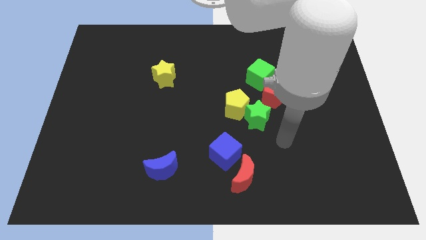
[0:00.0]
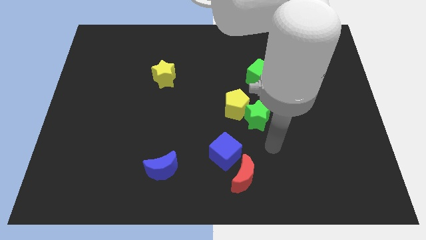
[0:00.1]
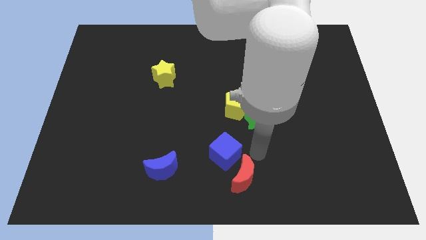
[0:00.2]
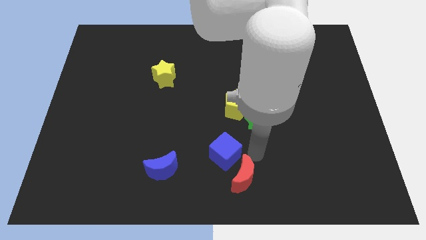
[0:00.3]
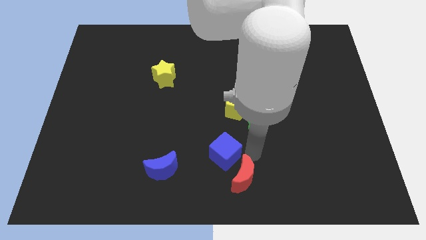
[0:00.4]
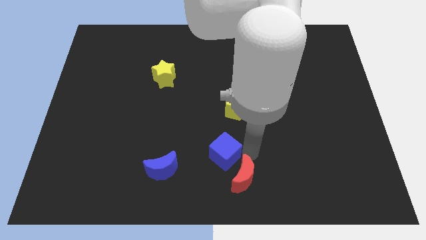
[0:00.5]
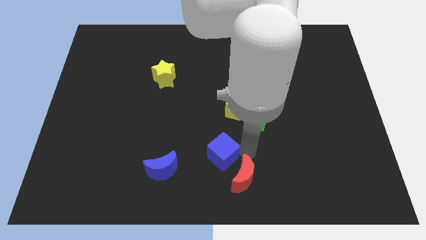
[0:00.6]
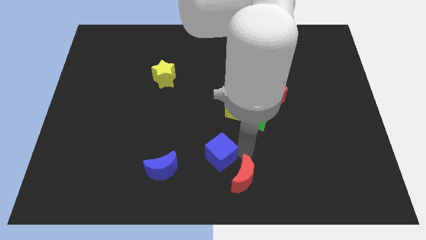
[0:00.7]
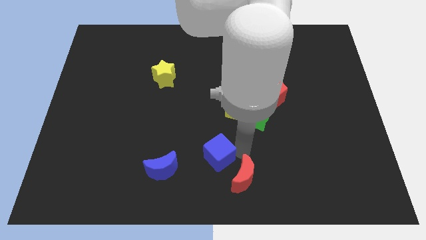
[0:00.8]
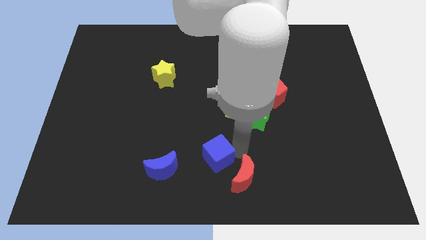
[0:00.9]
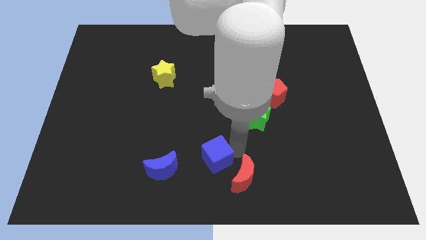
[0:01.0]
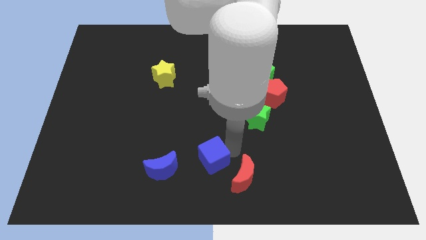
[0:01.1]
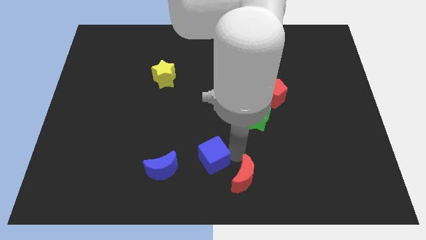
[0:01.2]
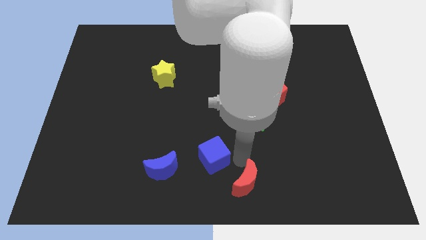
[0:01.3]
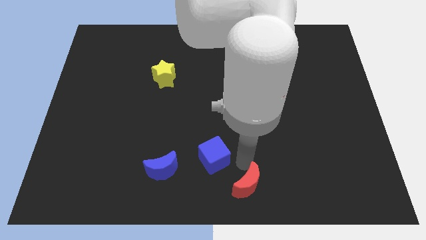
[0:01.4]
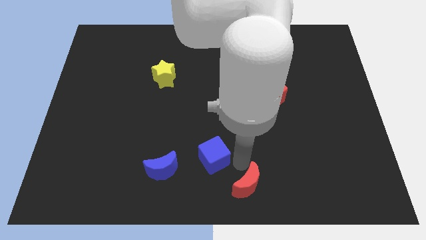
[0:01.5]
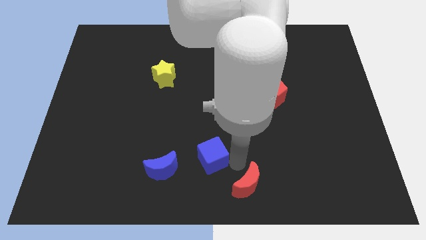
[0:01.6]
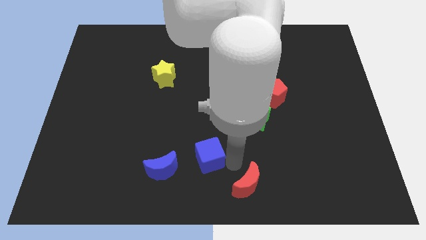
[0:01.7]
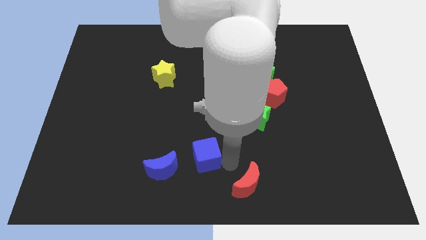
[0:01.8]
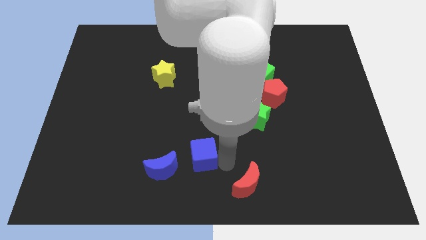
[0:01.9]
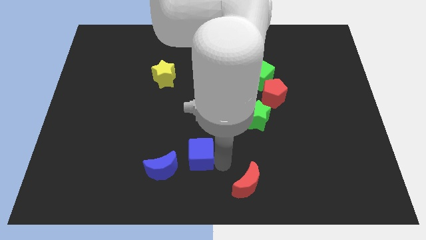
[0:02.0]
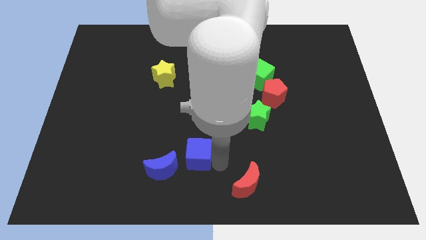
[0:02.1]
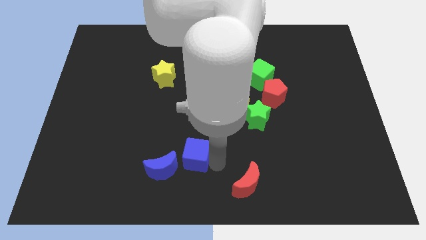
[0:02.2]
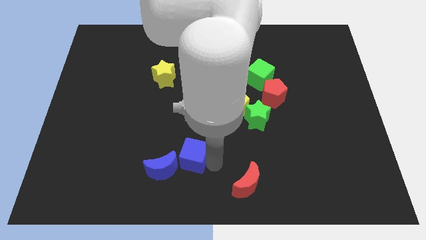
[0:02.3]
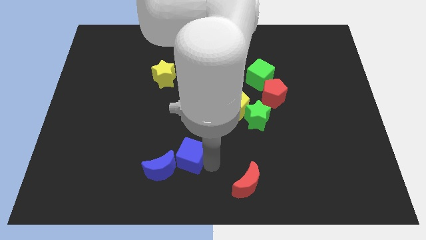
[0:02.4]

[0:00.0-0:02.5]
slightly push the blue cube to the left

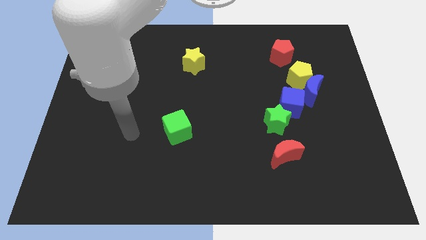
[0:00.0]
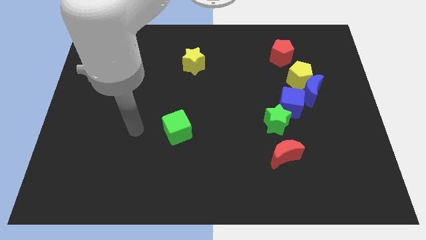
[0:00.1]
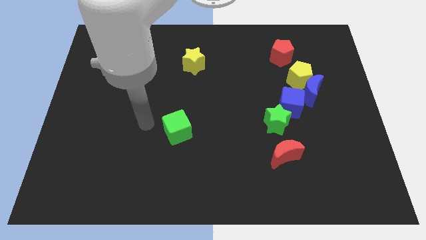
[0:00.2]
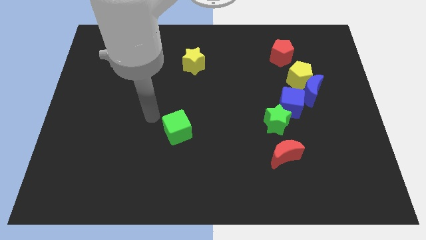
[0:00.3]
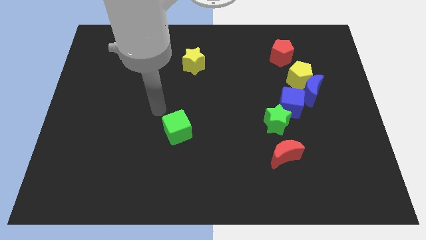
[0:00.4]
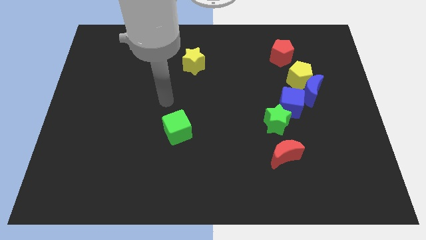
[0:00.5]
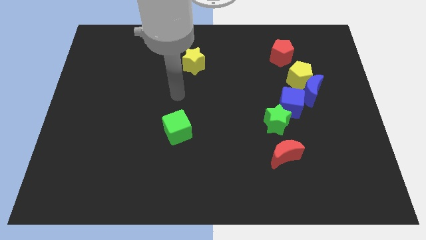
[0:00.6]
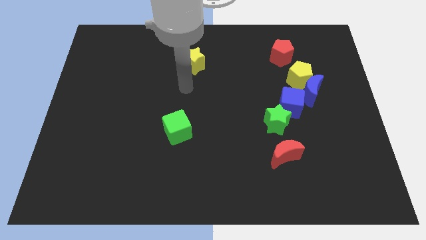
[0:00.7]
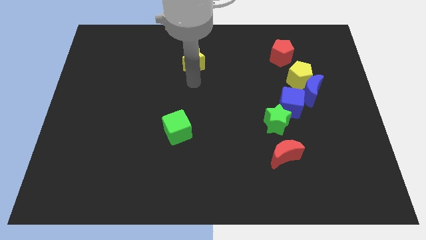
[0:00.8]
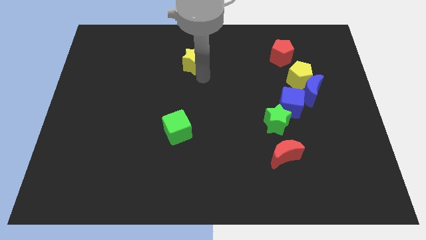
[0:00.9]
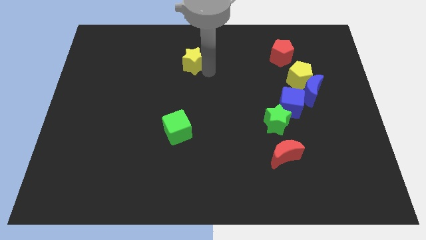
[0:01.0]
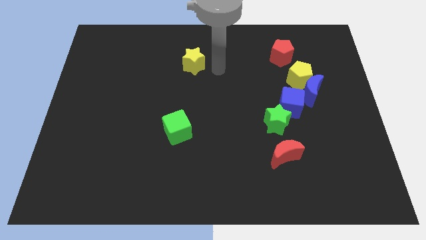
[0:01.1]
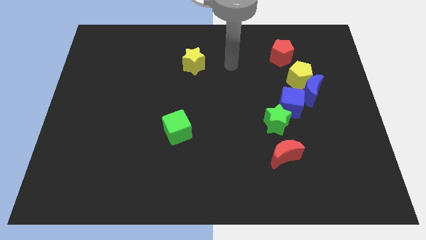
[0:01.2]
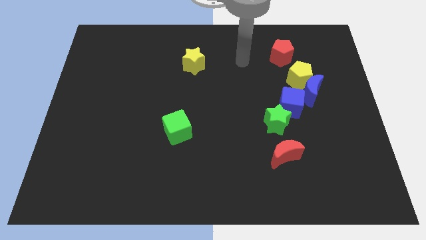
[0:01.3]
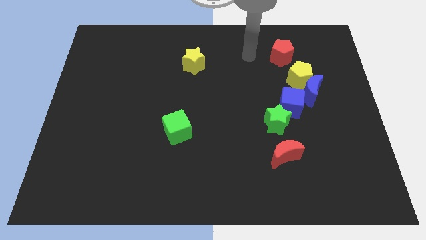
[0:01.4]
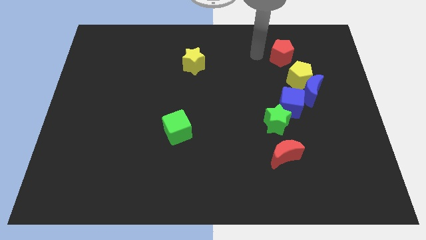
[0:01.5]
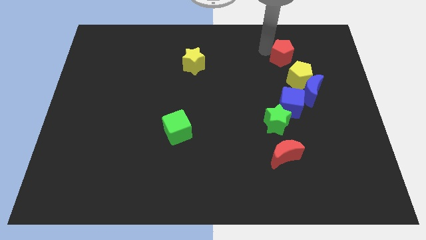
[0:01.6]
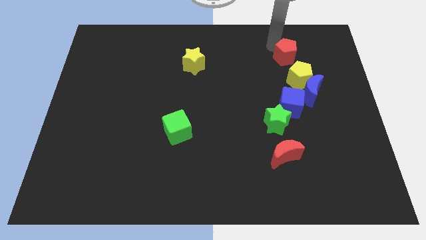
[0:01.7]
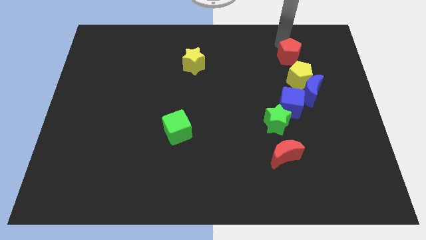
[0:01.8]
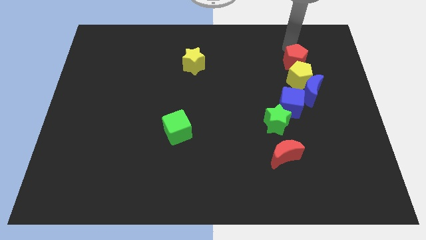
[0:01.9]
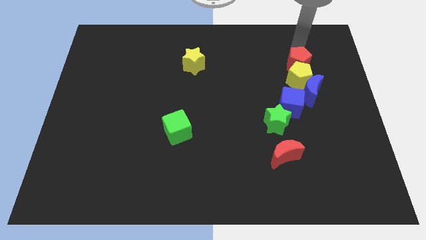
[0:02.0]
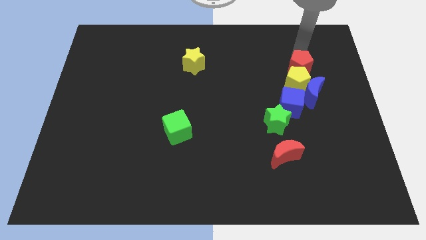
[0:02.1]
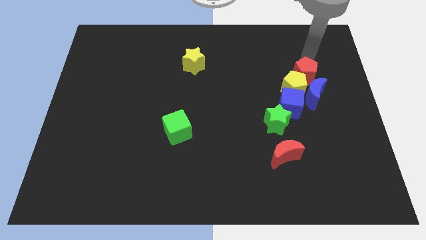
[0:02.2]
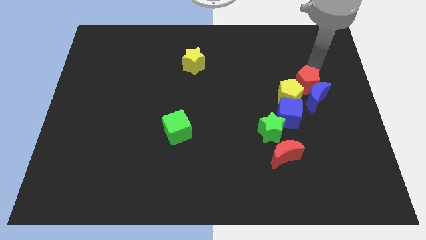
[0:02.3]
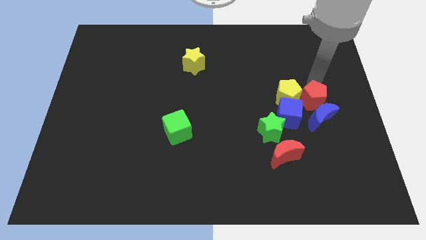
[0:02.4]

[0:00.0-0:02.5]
push the yellow pentagon a little diagonally downwards and to the left

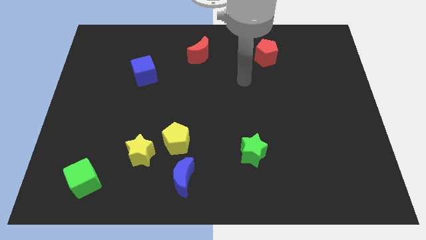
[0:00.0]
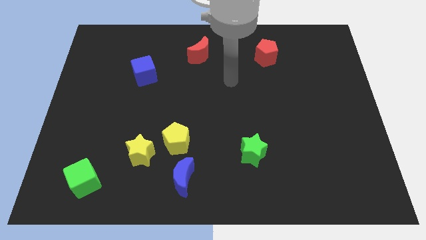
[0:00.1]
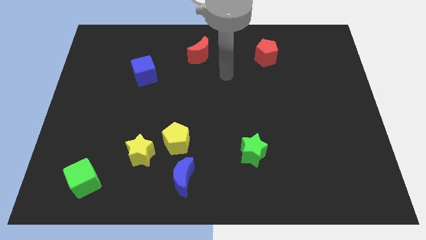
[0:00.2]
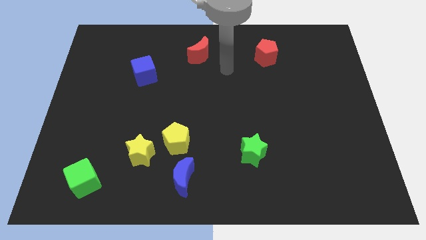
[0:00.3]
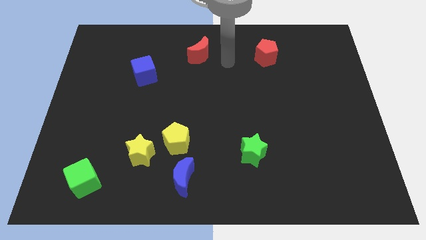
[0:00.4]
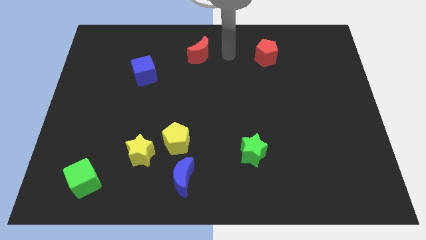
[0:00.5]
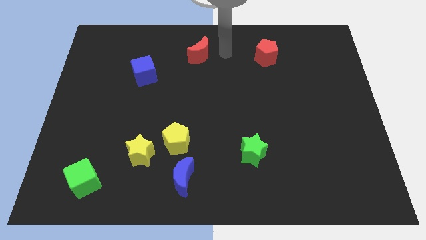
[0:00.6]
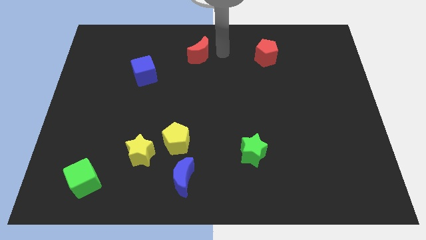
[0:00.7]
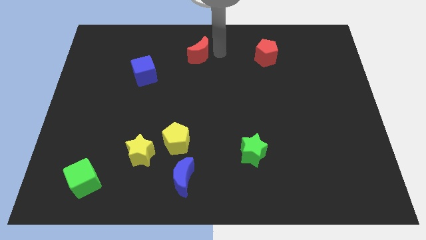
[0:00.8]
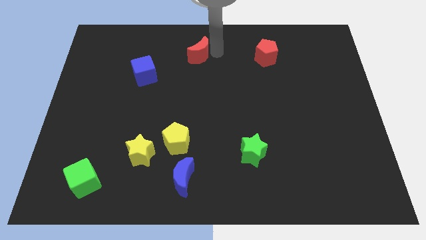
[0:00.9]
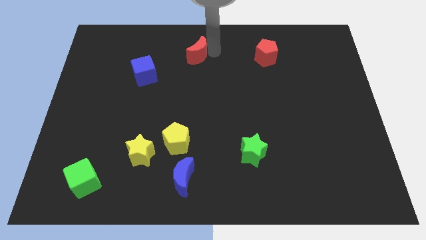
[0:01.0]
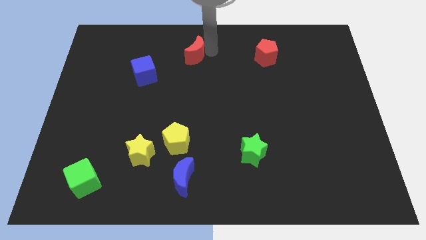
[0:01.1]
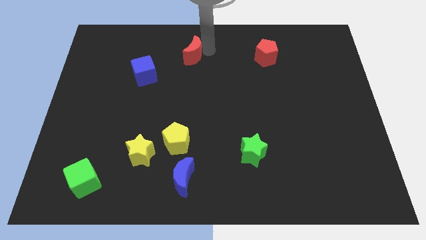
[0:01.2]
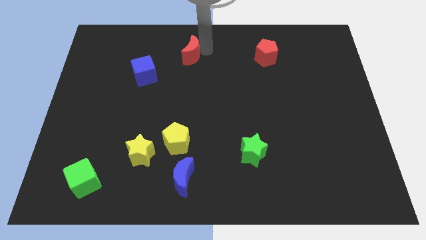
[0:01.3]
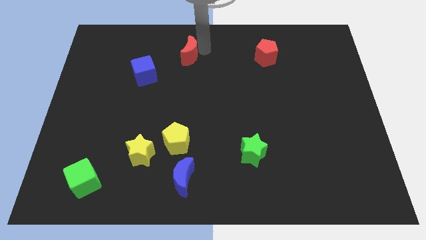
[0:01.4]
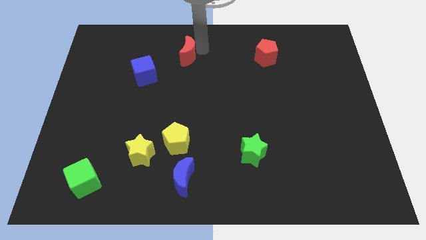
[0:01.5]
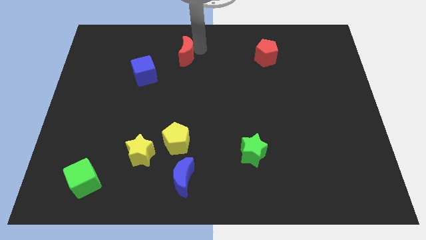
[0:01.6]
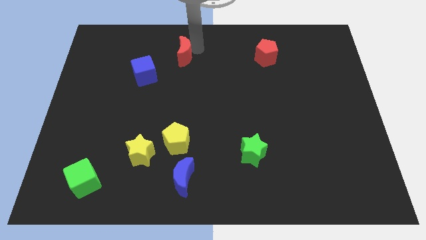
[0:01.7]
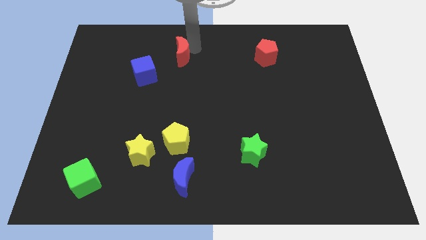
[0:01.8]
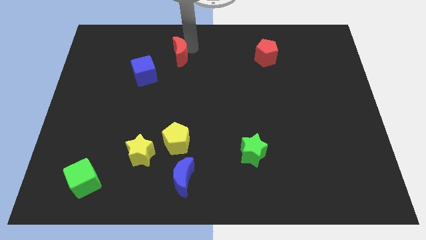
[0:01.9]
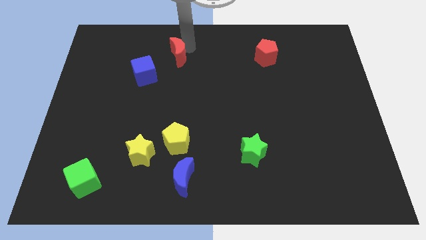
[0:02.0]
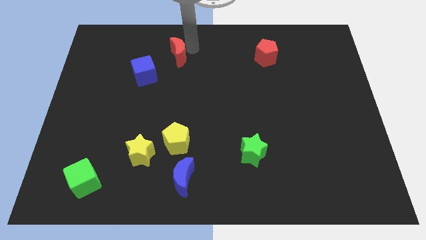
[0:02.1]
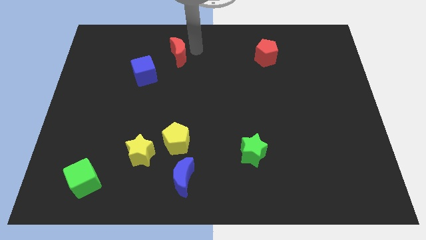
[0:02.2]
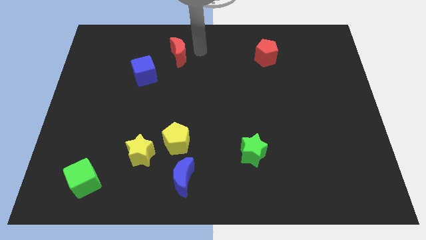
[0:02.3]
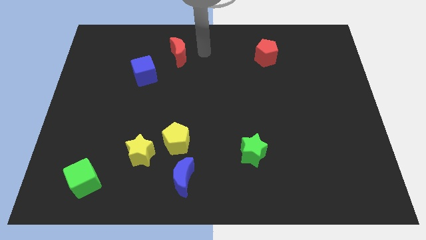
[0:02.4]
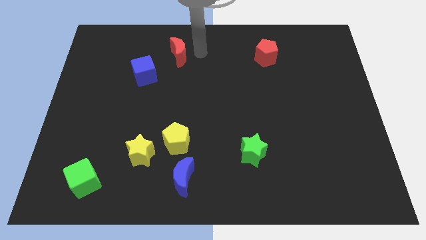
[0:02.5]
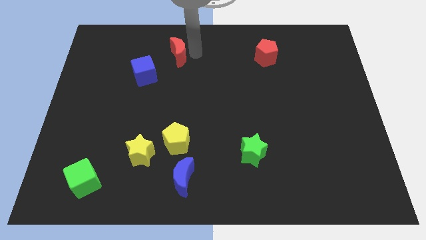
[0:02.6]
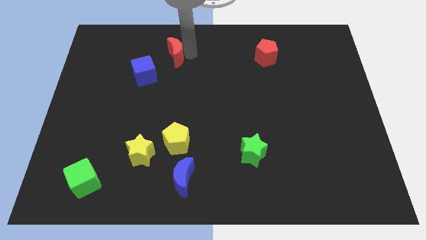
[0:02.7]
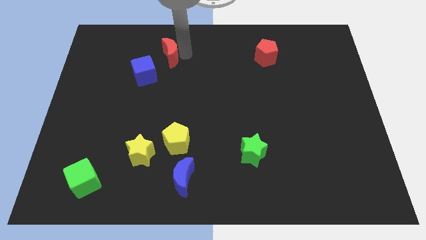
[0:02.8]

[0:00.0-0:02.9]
slide the red moon to the left somewhat
